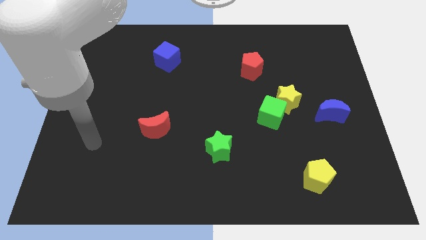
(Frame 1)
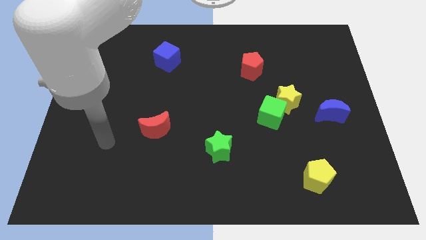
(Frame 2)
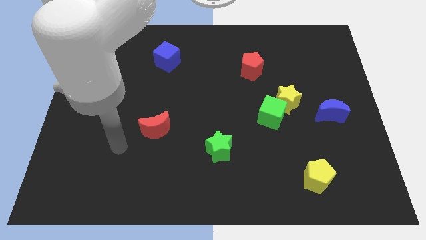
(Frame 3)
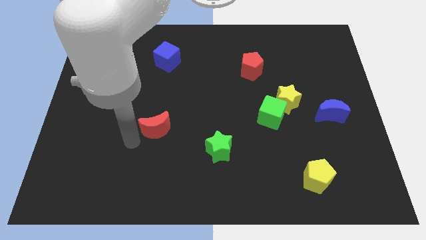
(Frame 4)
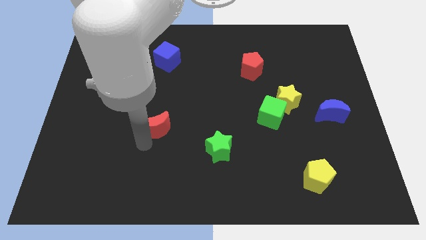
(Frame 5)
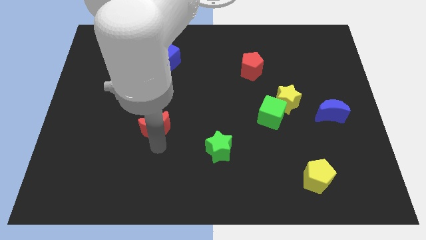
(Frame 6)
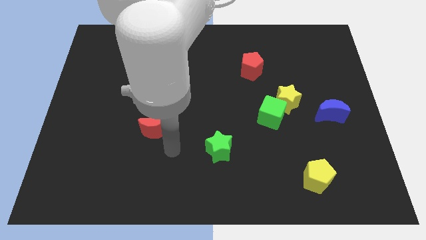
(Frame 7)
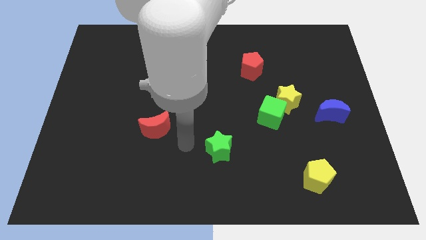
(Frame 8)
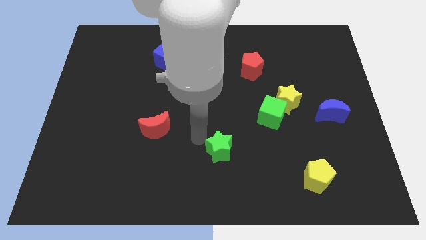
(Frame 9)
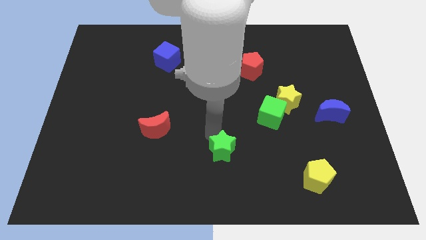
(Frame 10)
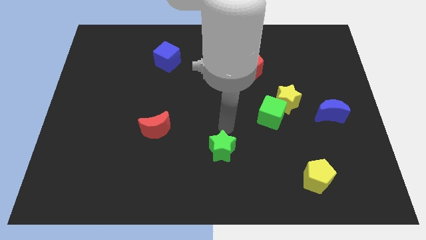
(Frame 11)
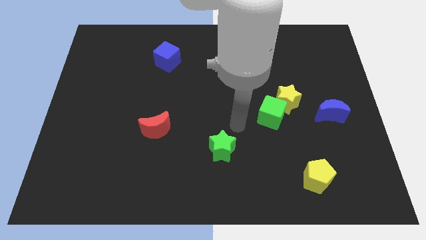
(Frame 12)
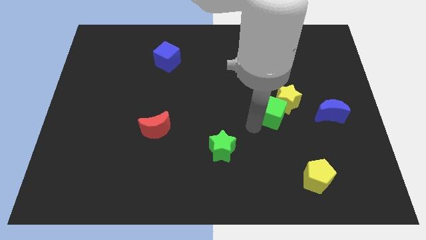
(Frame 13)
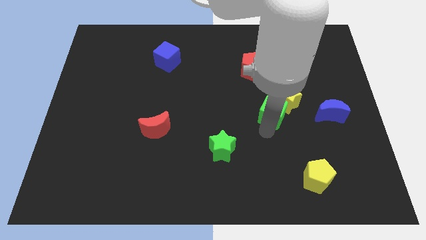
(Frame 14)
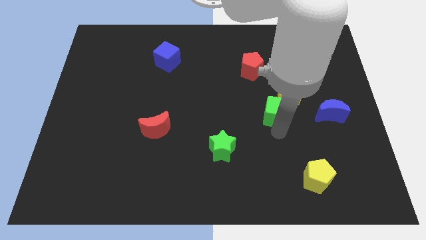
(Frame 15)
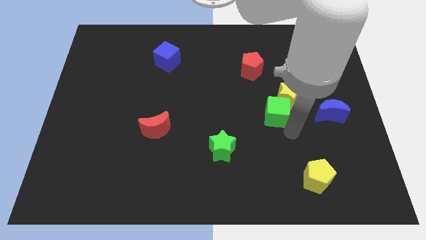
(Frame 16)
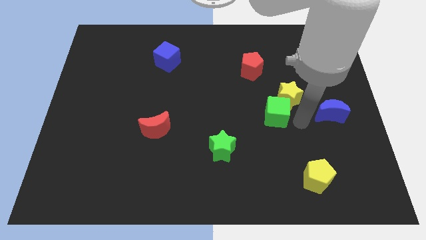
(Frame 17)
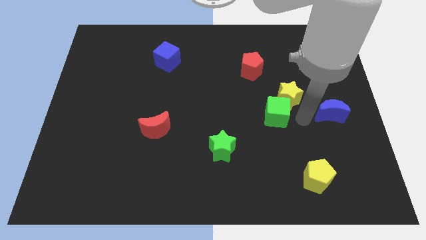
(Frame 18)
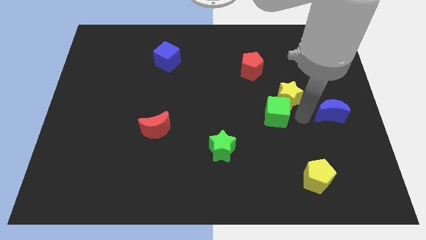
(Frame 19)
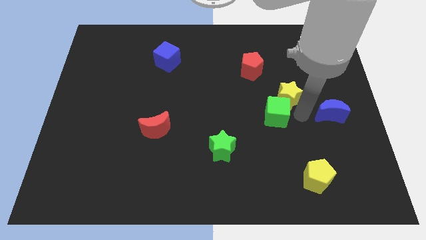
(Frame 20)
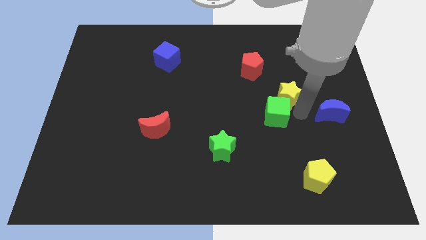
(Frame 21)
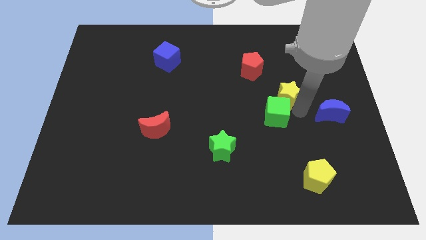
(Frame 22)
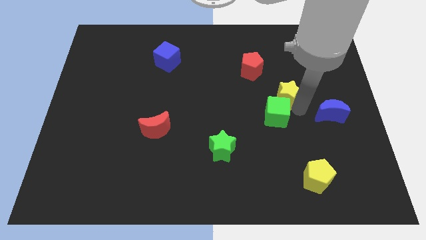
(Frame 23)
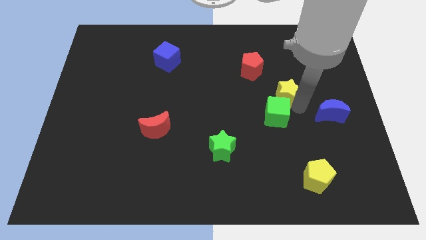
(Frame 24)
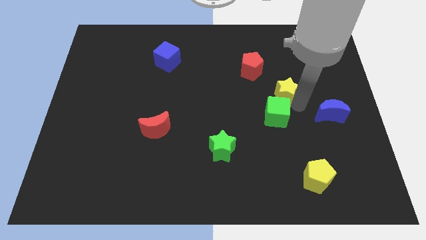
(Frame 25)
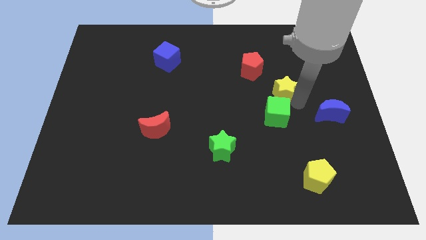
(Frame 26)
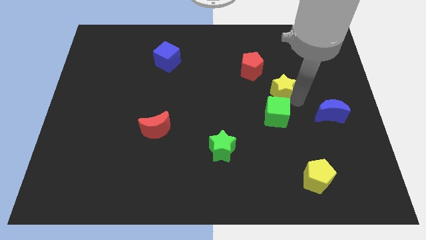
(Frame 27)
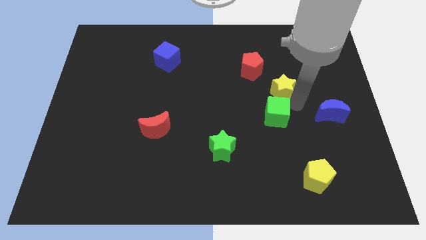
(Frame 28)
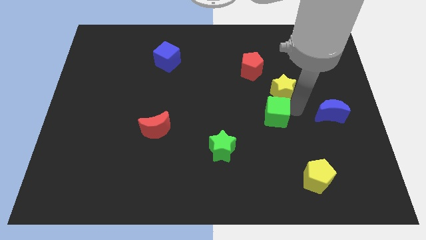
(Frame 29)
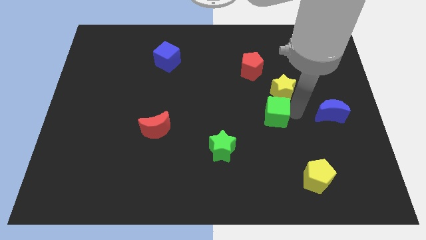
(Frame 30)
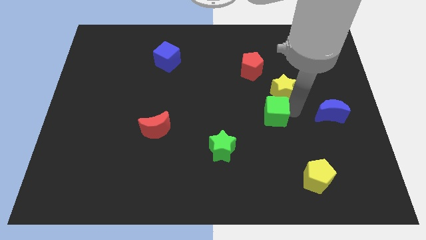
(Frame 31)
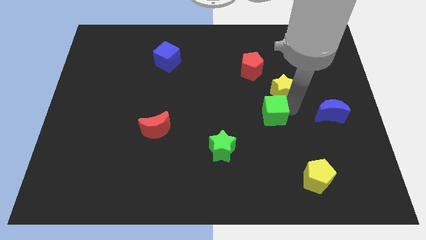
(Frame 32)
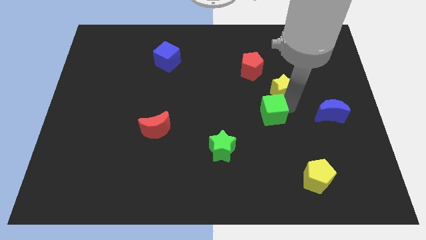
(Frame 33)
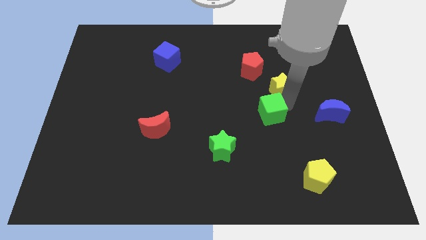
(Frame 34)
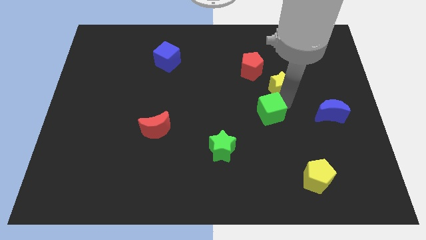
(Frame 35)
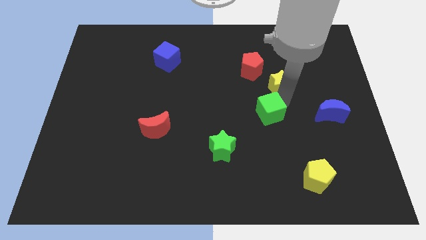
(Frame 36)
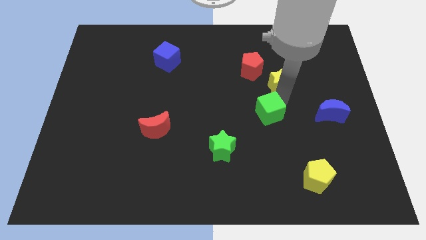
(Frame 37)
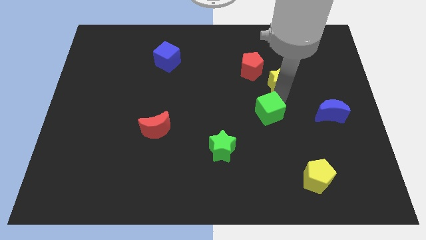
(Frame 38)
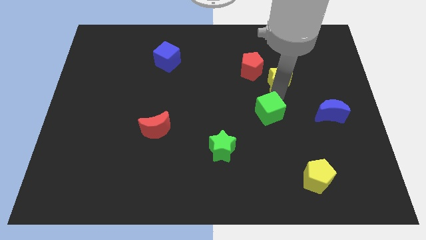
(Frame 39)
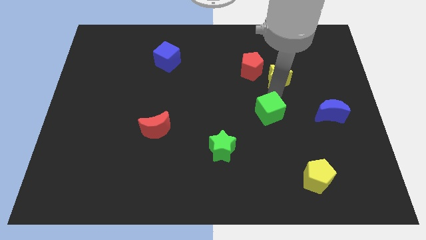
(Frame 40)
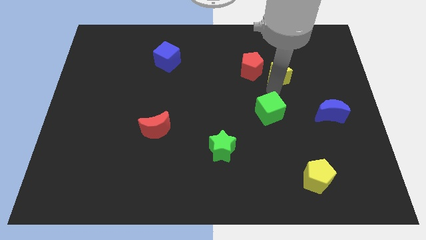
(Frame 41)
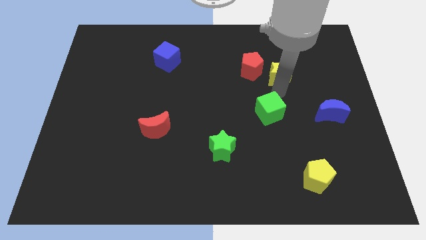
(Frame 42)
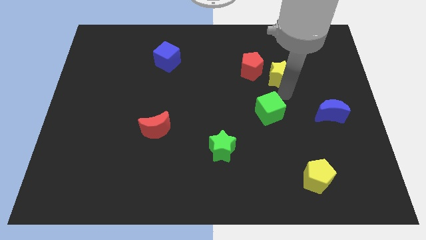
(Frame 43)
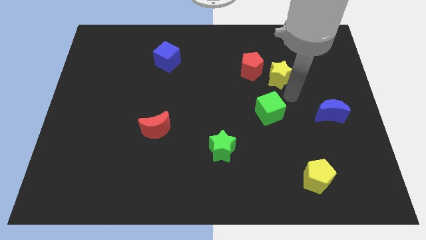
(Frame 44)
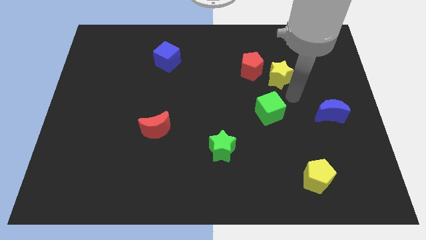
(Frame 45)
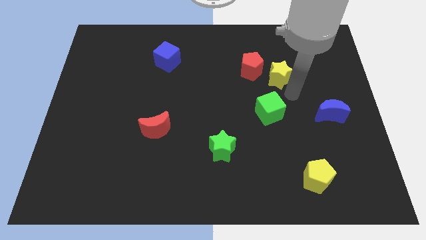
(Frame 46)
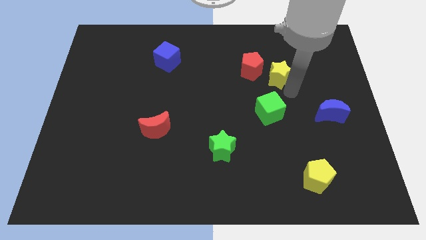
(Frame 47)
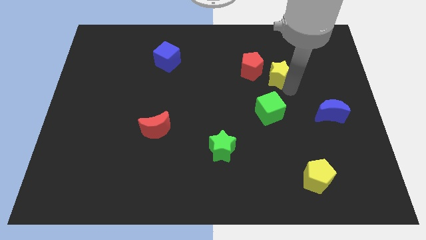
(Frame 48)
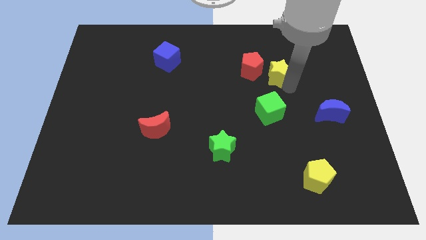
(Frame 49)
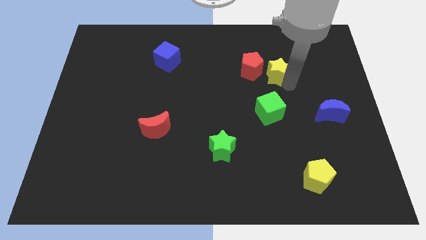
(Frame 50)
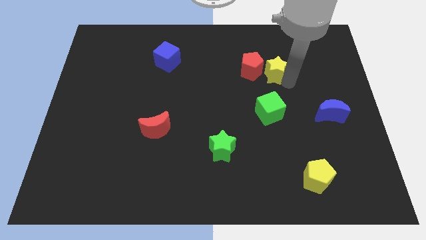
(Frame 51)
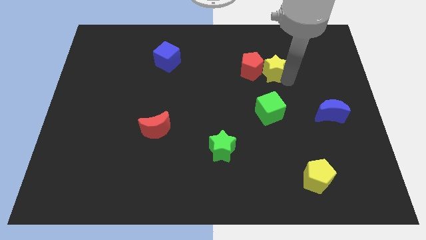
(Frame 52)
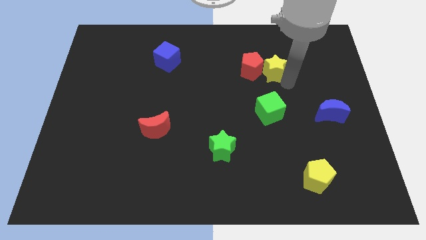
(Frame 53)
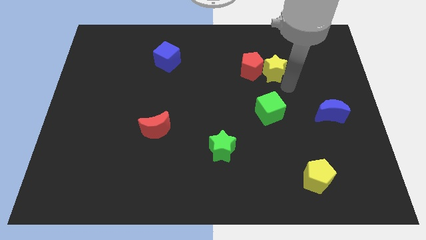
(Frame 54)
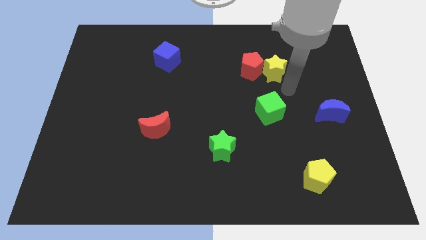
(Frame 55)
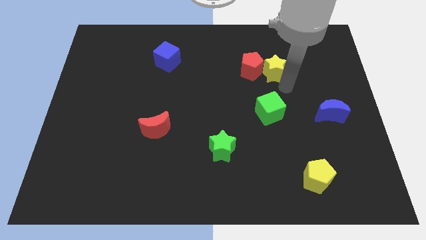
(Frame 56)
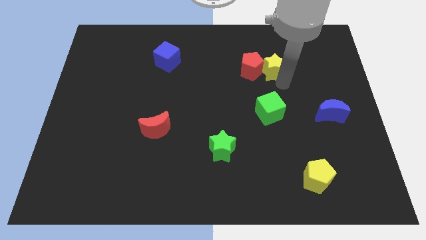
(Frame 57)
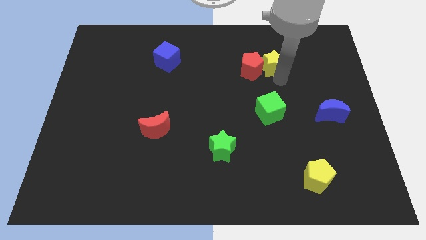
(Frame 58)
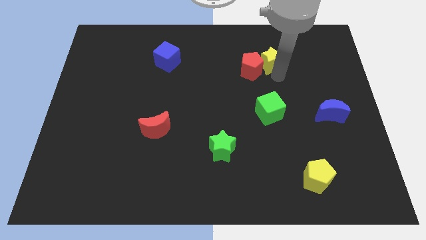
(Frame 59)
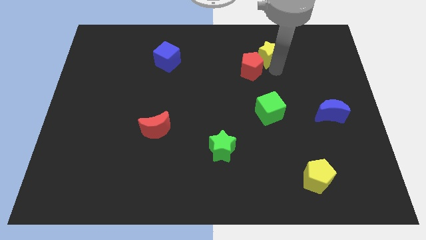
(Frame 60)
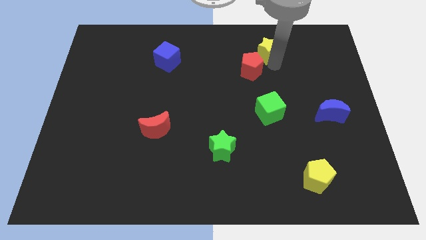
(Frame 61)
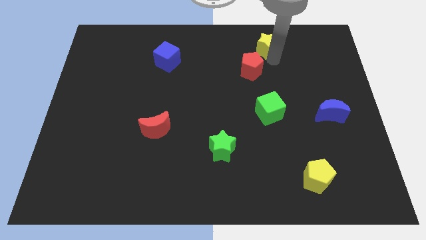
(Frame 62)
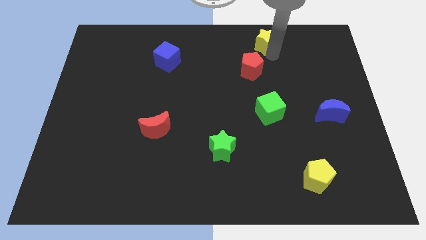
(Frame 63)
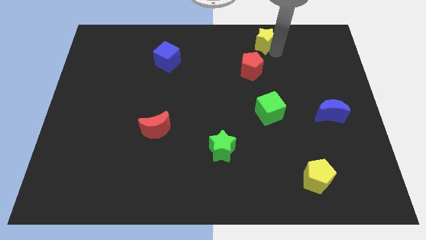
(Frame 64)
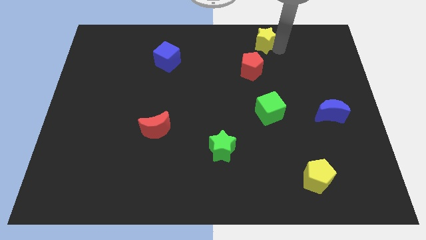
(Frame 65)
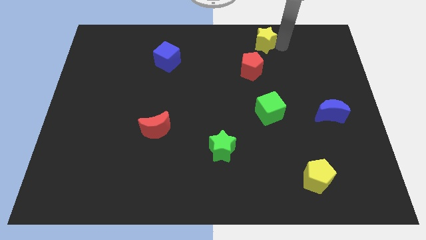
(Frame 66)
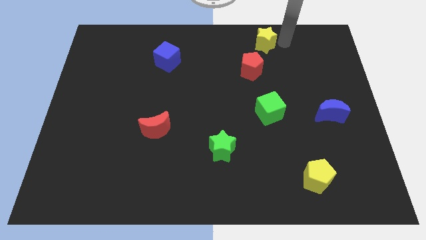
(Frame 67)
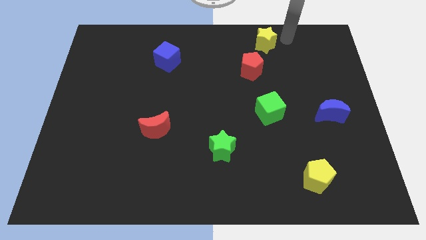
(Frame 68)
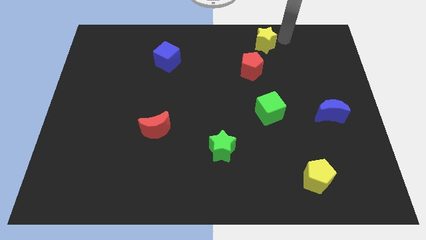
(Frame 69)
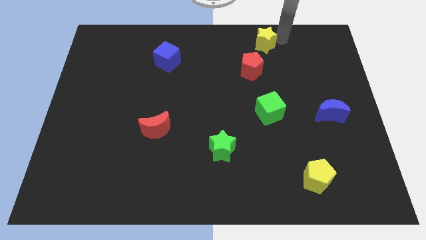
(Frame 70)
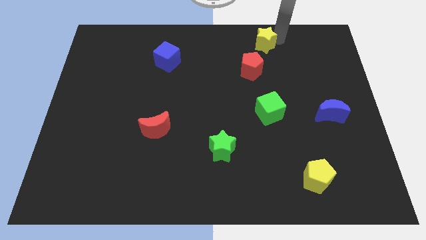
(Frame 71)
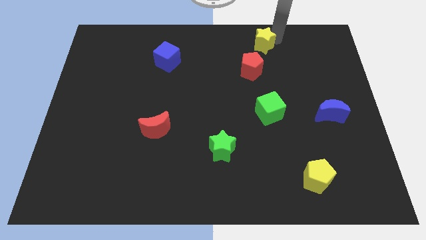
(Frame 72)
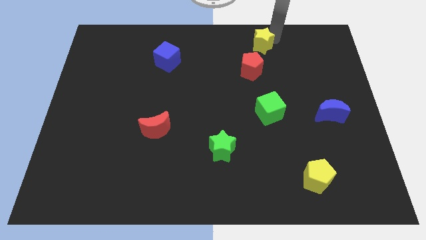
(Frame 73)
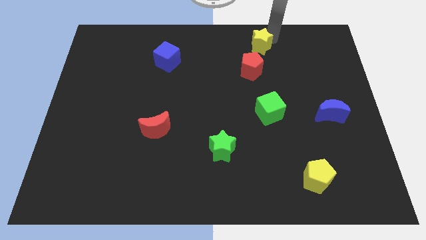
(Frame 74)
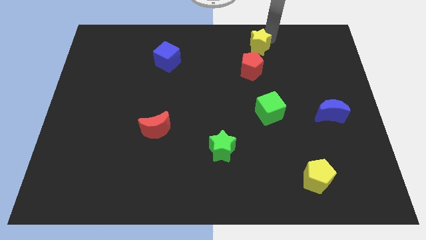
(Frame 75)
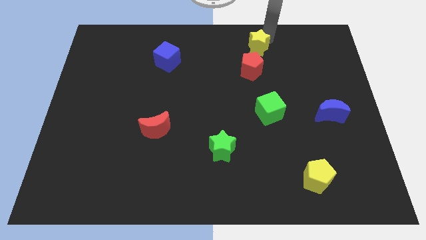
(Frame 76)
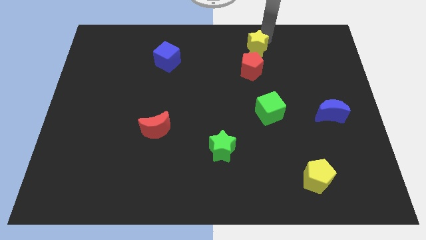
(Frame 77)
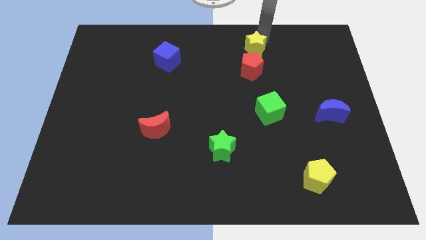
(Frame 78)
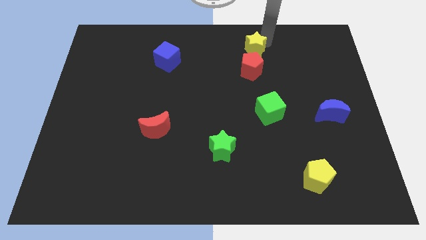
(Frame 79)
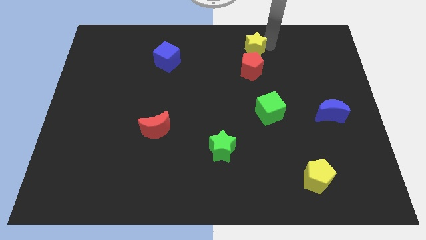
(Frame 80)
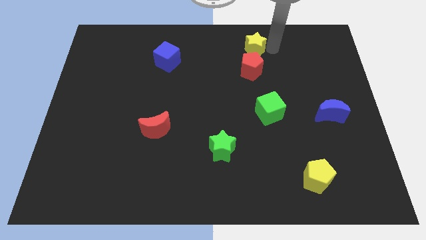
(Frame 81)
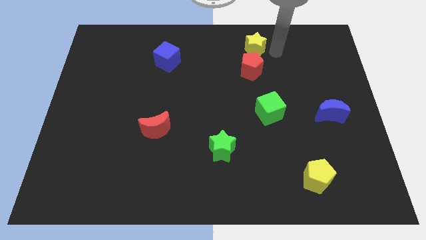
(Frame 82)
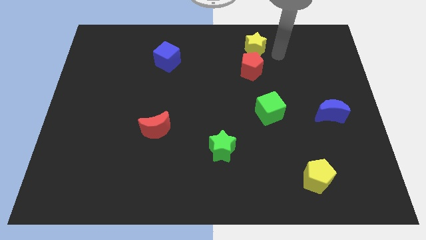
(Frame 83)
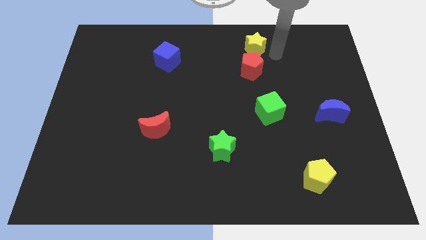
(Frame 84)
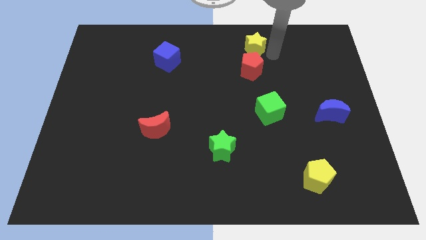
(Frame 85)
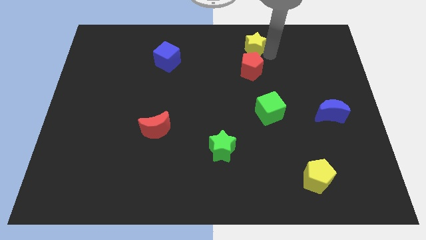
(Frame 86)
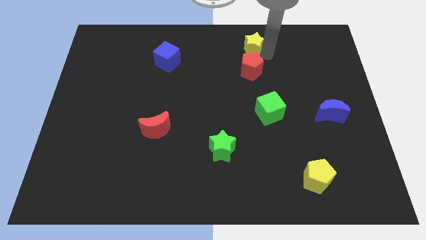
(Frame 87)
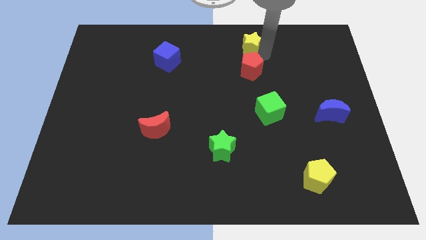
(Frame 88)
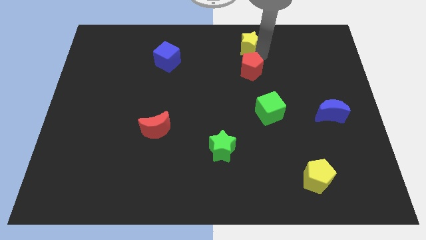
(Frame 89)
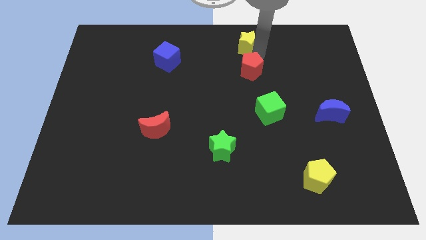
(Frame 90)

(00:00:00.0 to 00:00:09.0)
slide the yellow star to the top
